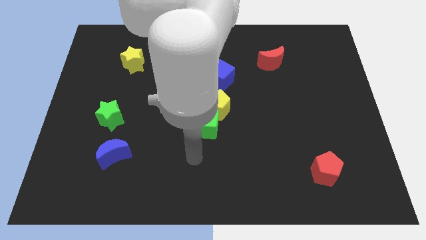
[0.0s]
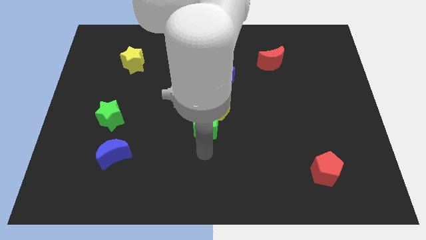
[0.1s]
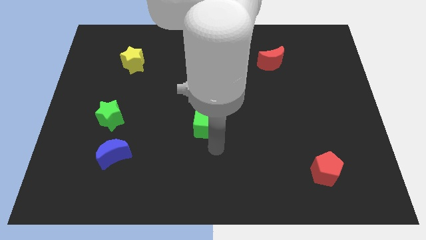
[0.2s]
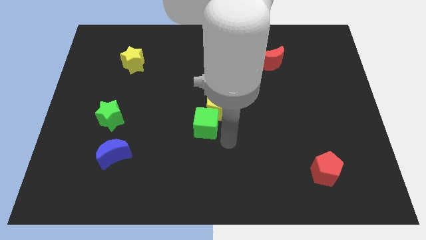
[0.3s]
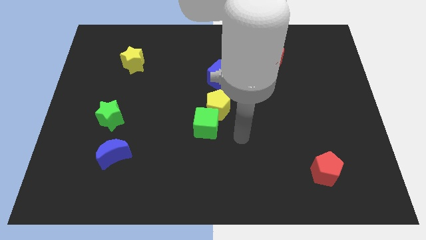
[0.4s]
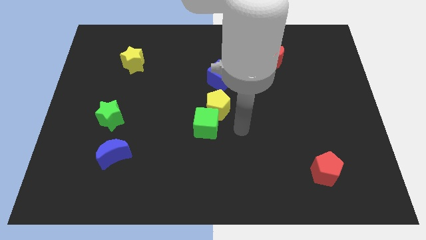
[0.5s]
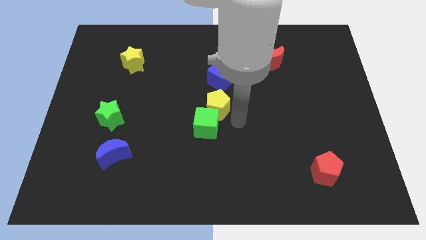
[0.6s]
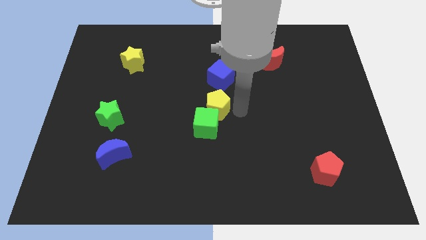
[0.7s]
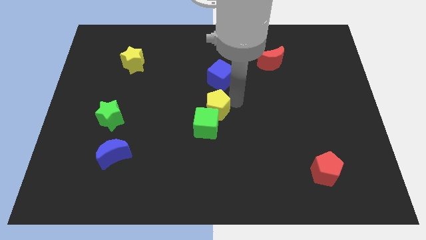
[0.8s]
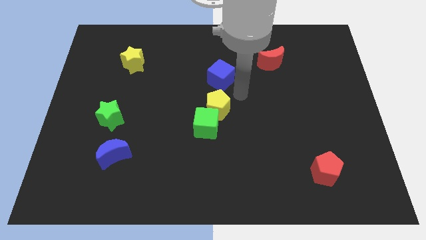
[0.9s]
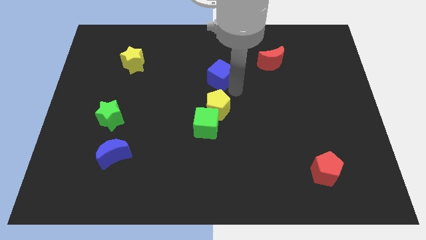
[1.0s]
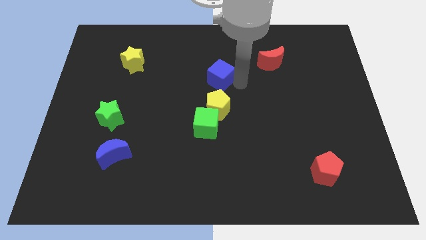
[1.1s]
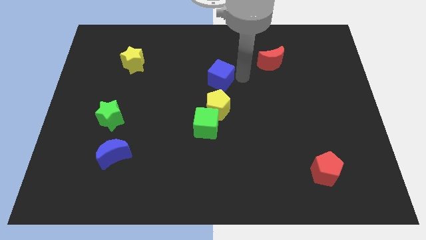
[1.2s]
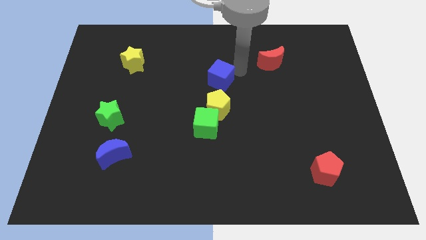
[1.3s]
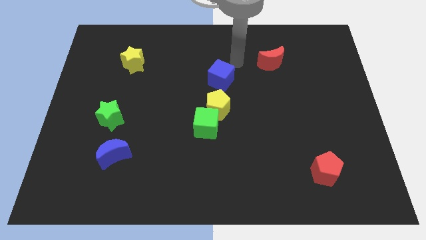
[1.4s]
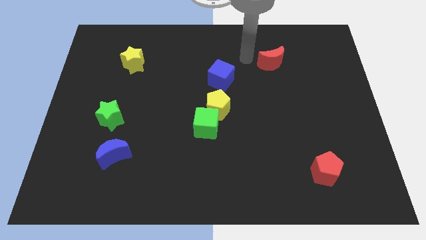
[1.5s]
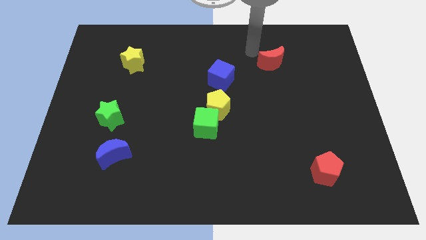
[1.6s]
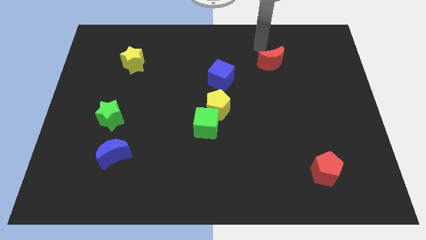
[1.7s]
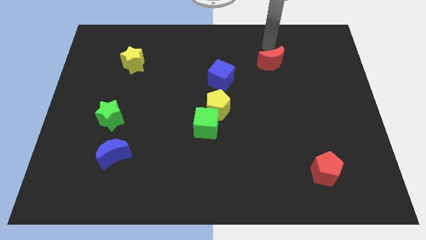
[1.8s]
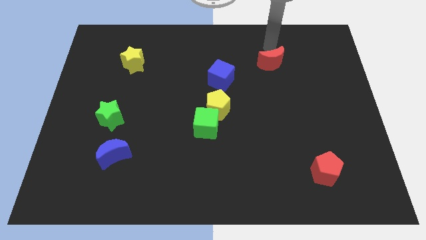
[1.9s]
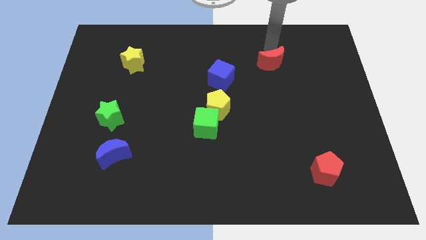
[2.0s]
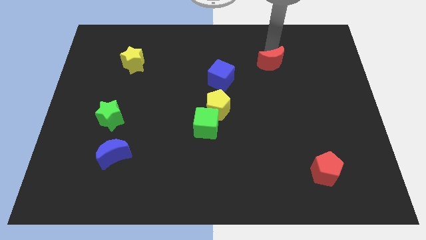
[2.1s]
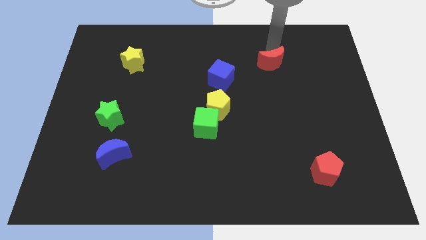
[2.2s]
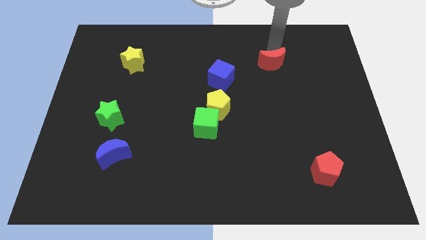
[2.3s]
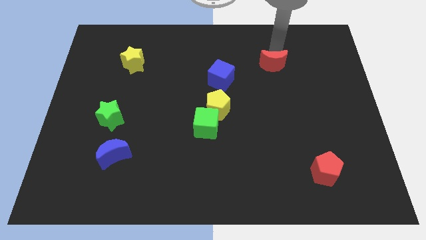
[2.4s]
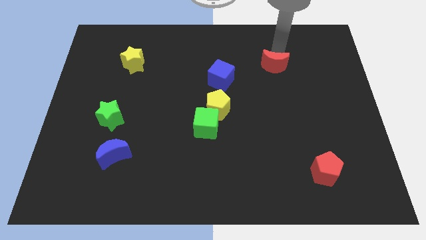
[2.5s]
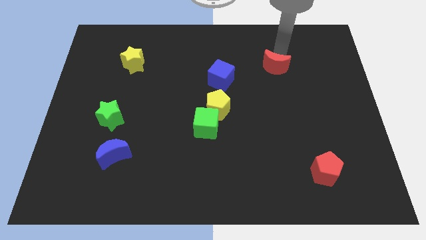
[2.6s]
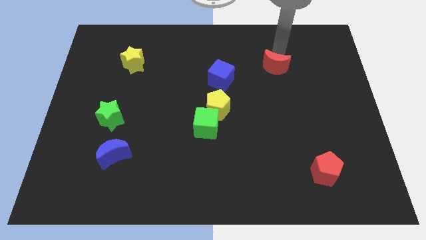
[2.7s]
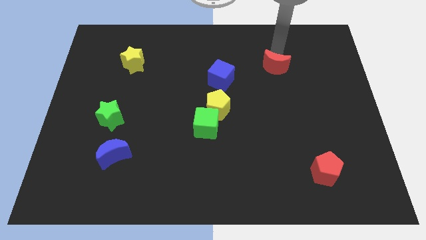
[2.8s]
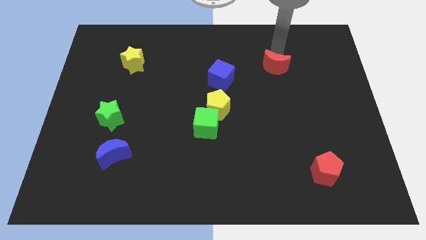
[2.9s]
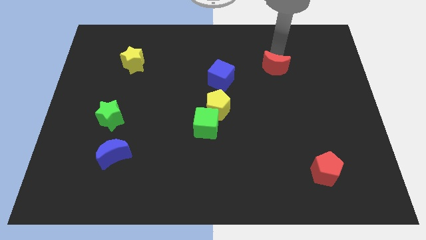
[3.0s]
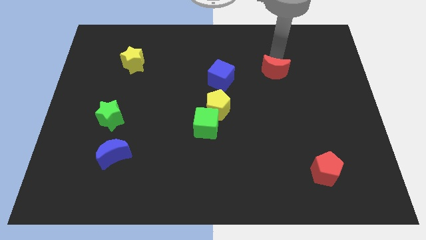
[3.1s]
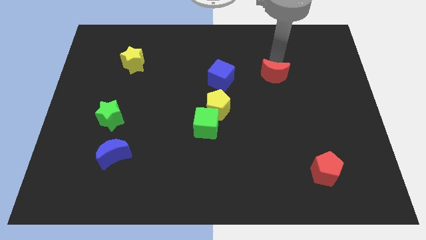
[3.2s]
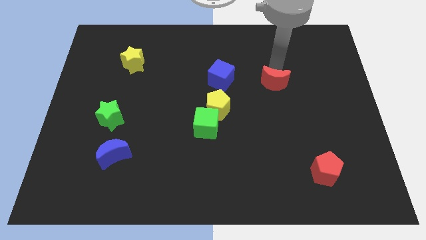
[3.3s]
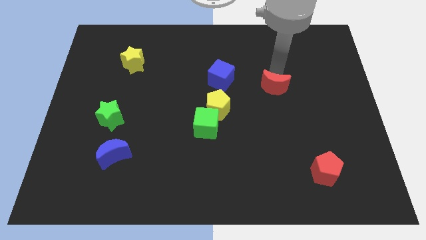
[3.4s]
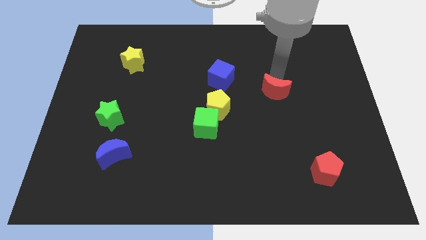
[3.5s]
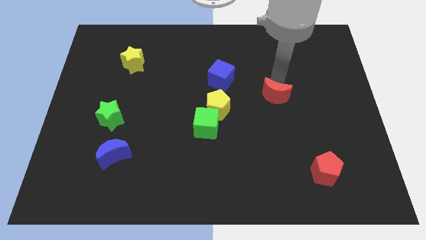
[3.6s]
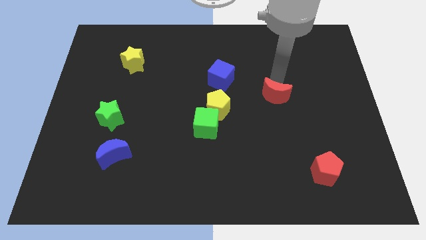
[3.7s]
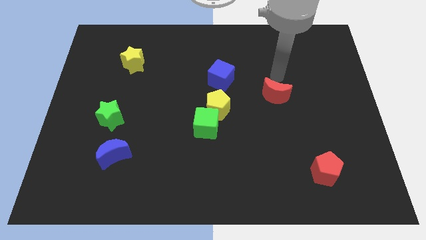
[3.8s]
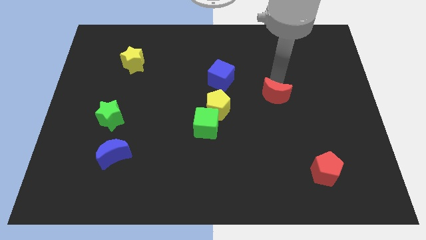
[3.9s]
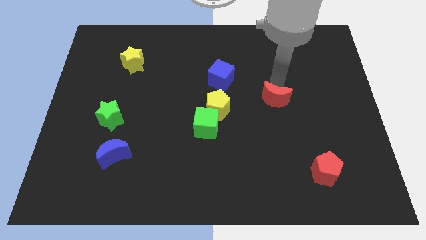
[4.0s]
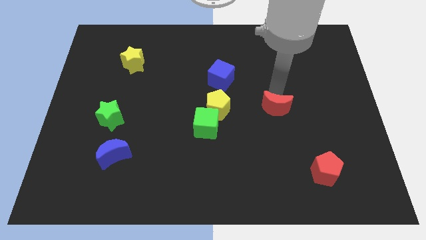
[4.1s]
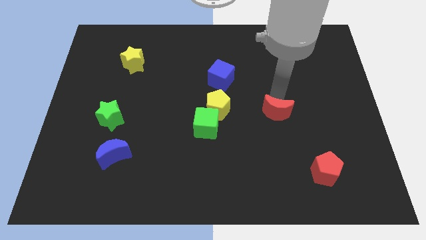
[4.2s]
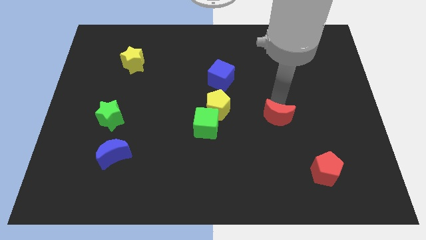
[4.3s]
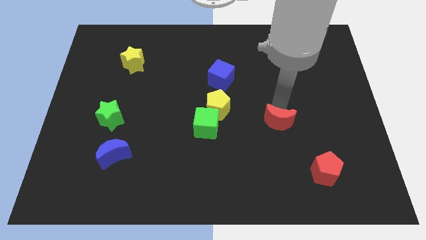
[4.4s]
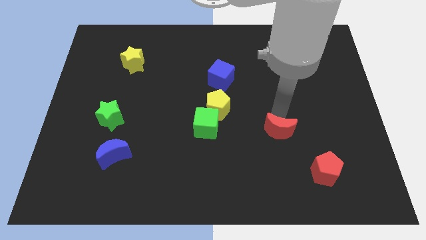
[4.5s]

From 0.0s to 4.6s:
move the red moon downwards

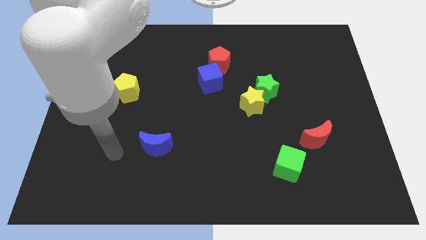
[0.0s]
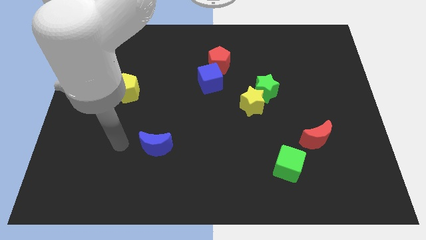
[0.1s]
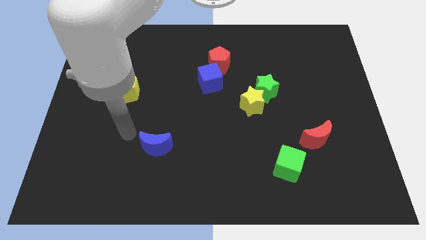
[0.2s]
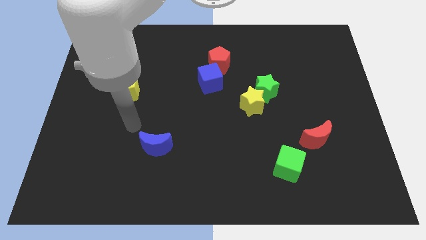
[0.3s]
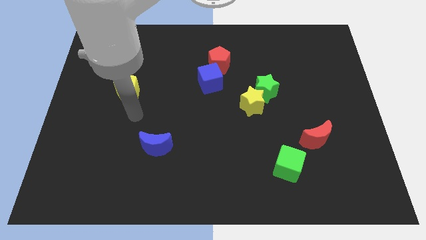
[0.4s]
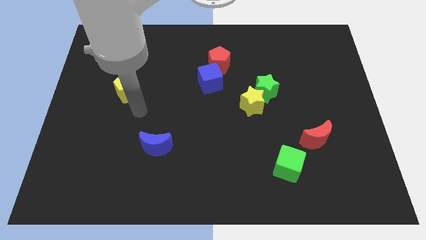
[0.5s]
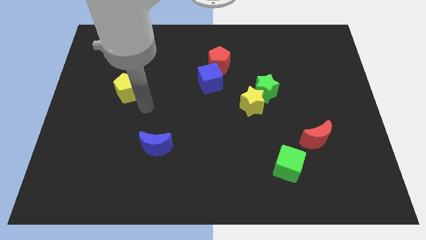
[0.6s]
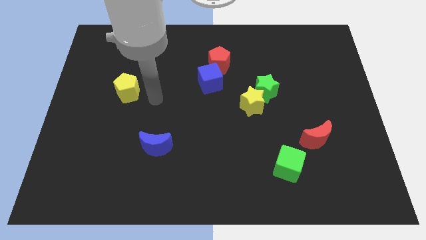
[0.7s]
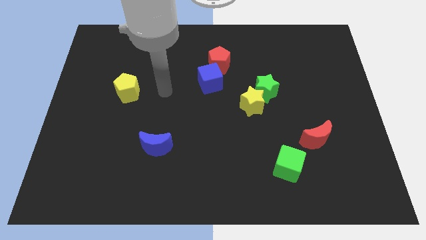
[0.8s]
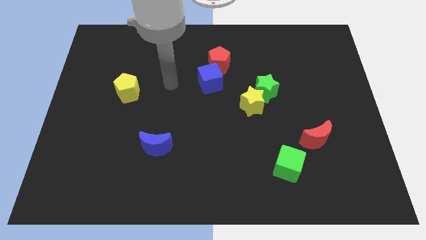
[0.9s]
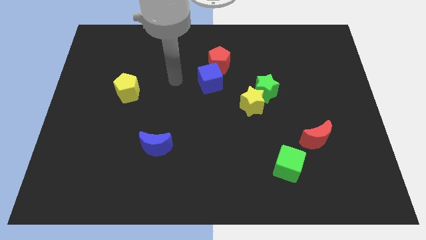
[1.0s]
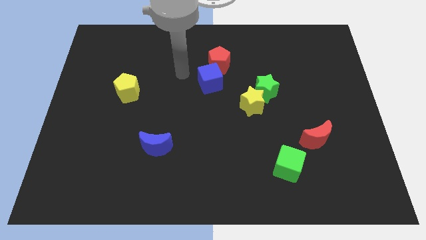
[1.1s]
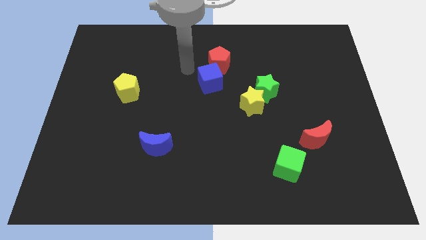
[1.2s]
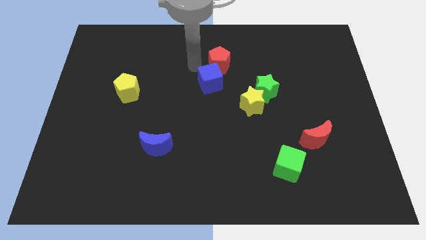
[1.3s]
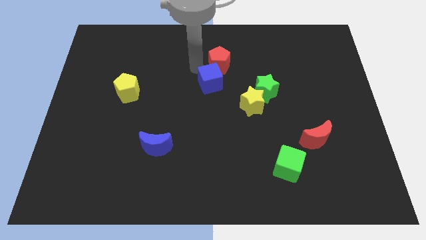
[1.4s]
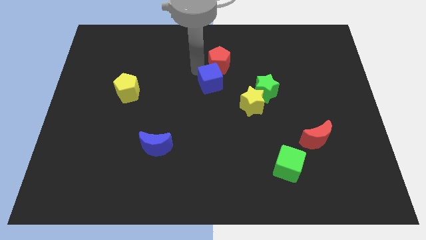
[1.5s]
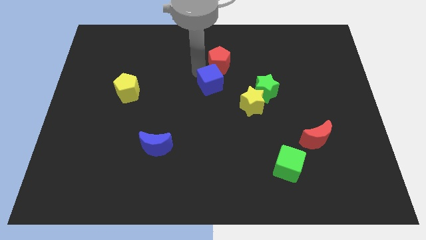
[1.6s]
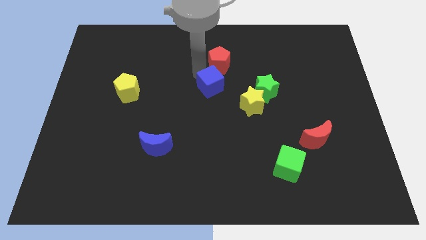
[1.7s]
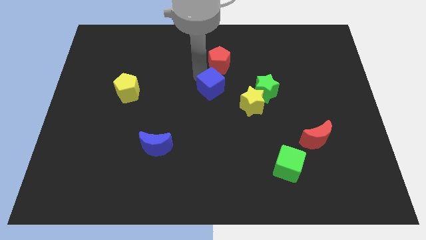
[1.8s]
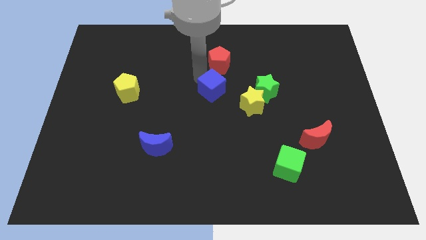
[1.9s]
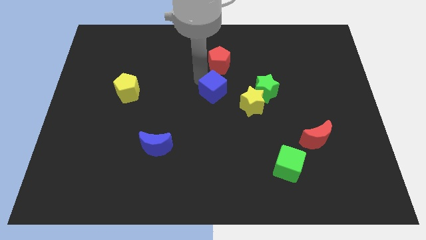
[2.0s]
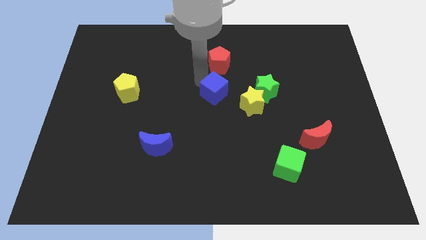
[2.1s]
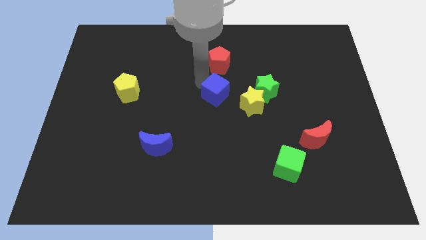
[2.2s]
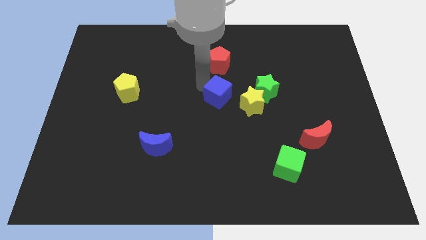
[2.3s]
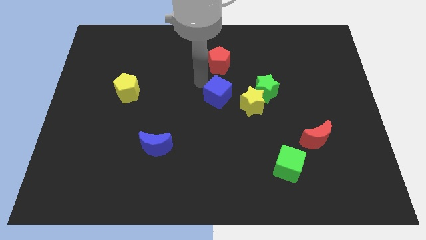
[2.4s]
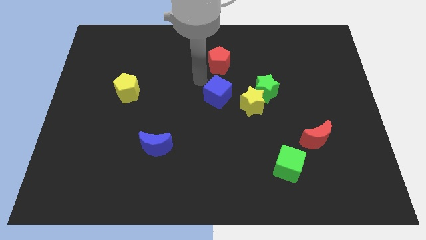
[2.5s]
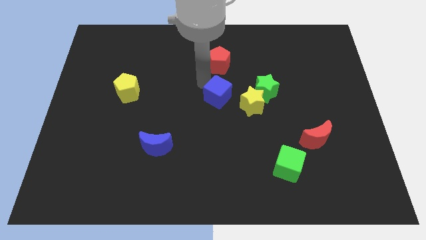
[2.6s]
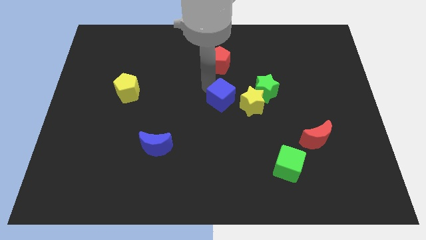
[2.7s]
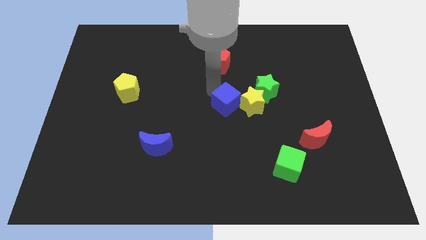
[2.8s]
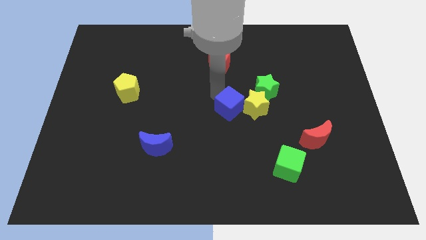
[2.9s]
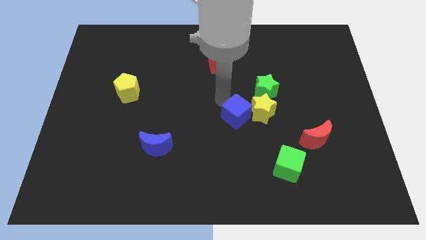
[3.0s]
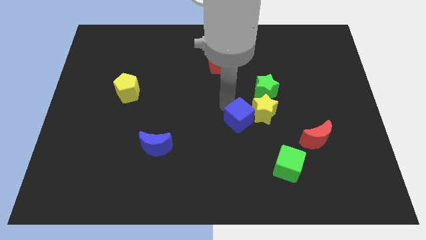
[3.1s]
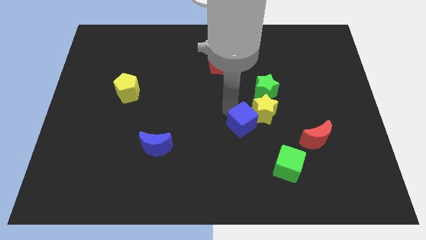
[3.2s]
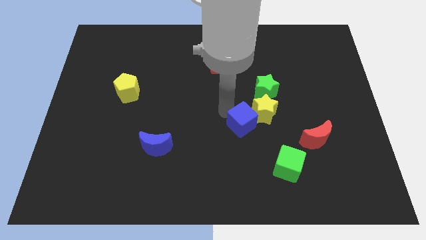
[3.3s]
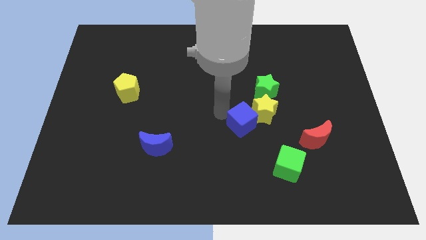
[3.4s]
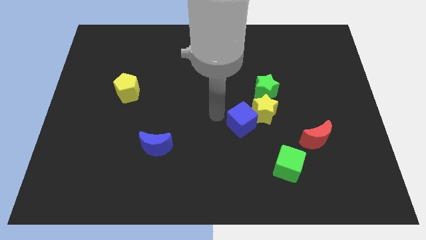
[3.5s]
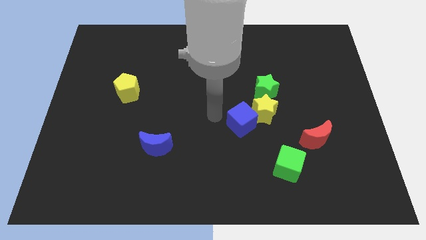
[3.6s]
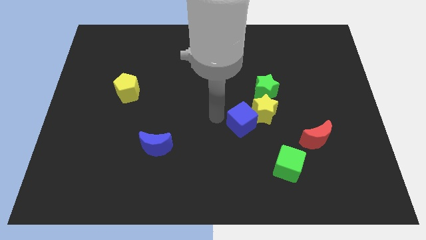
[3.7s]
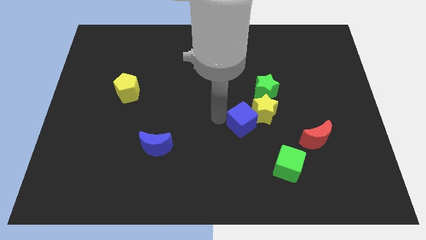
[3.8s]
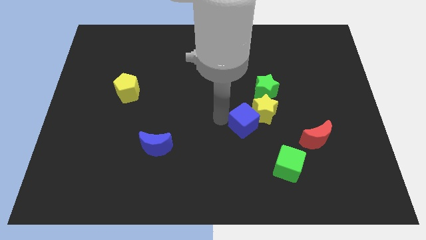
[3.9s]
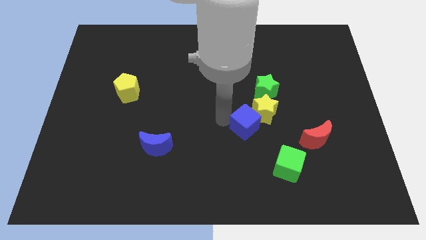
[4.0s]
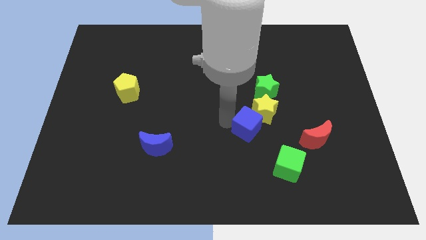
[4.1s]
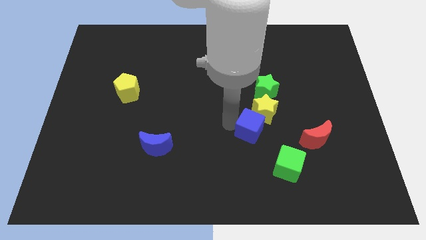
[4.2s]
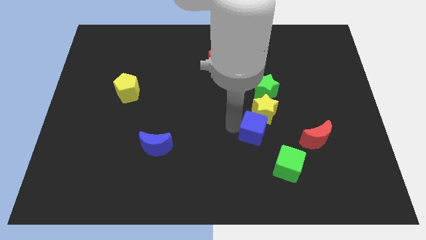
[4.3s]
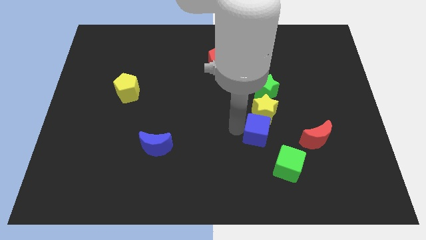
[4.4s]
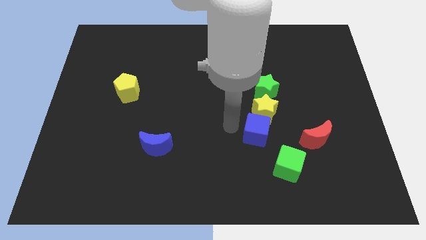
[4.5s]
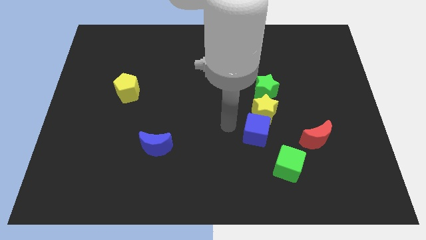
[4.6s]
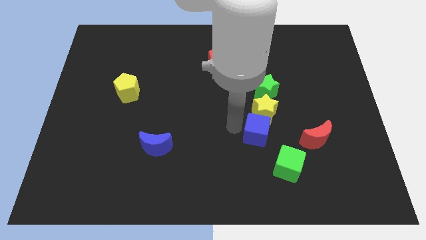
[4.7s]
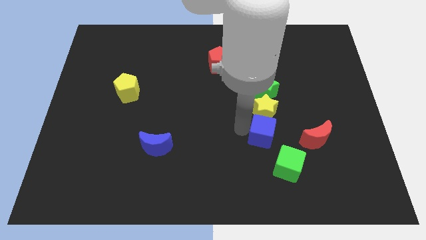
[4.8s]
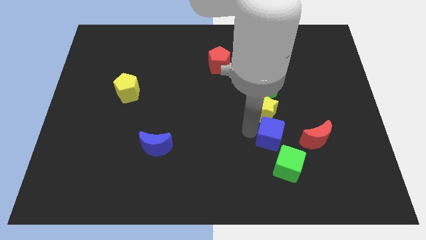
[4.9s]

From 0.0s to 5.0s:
slide the blue cube down and right diagonally
